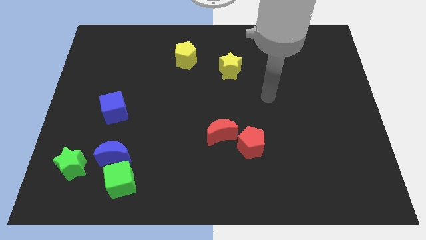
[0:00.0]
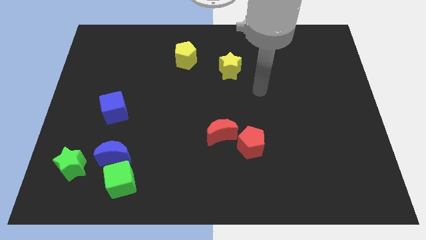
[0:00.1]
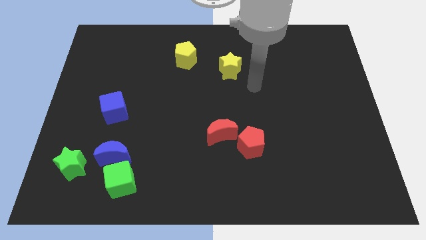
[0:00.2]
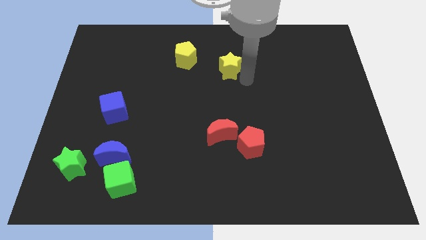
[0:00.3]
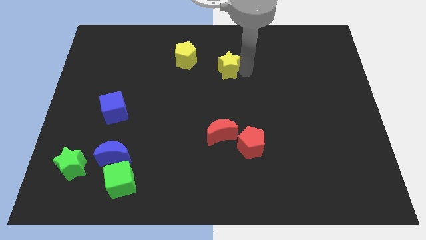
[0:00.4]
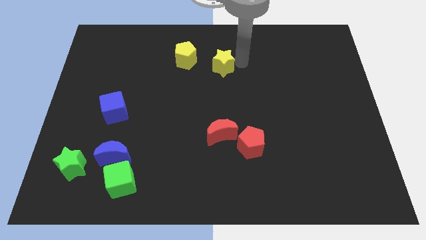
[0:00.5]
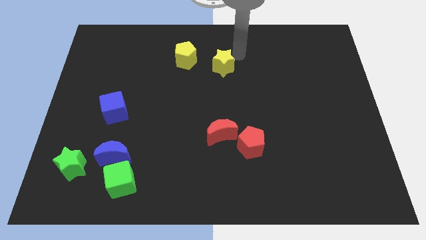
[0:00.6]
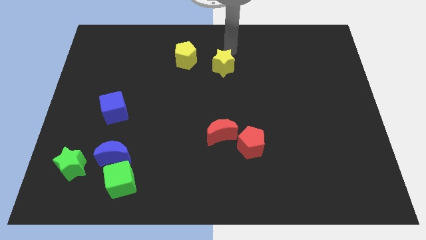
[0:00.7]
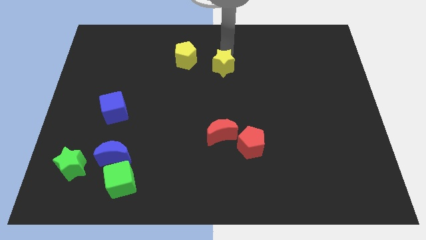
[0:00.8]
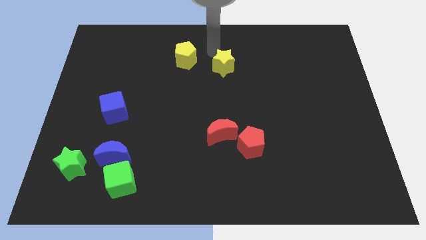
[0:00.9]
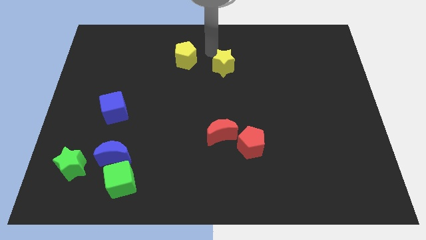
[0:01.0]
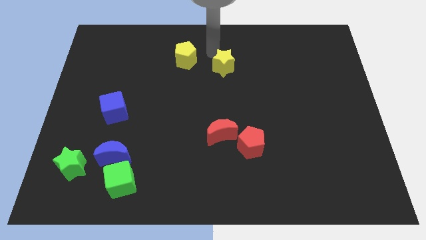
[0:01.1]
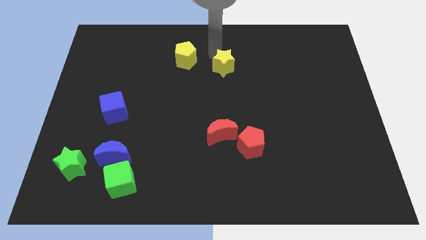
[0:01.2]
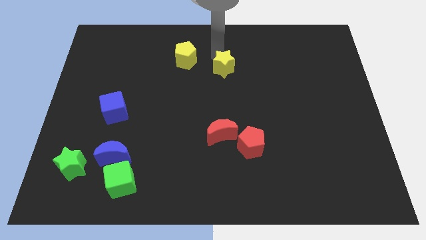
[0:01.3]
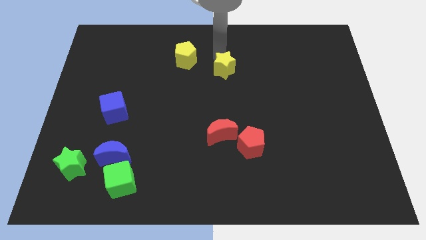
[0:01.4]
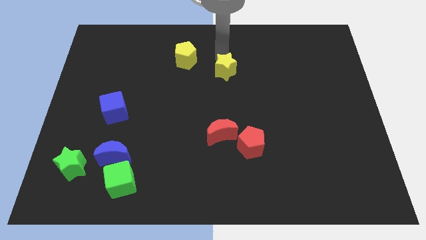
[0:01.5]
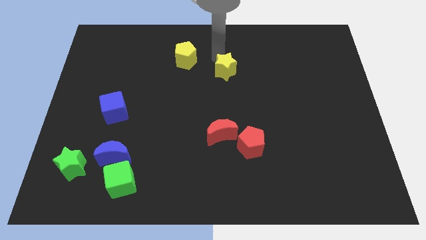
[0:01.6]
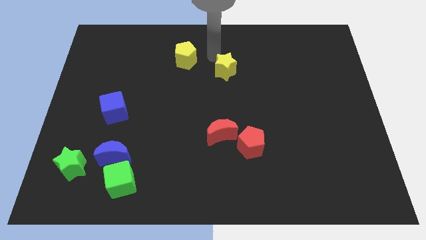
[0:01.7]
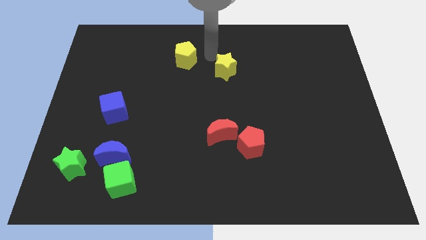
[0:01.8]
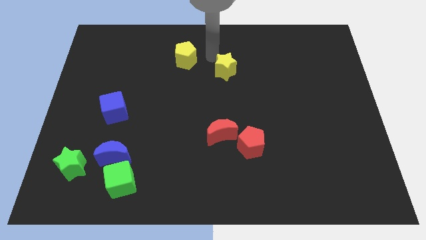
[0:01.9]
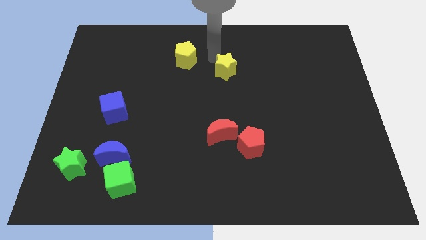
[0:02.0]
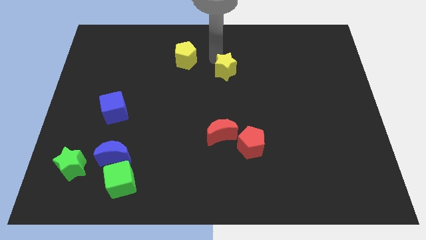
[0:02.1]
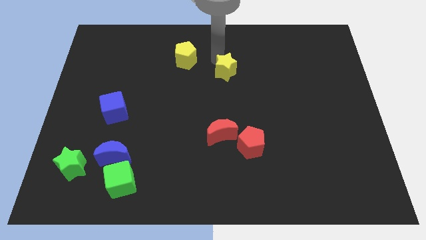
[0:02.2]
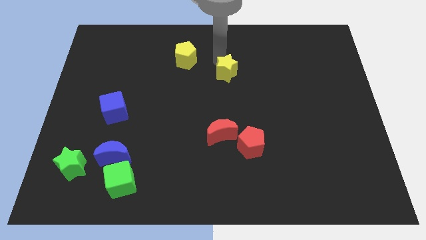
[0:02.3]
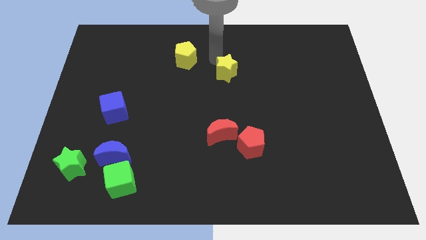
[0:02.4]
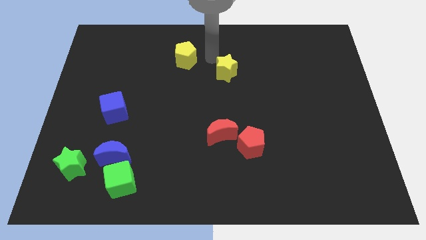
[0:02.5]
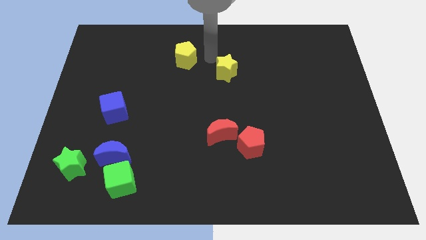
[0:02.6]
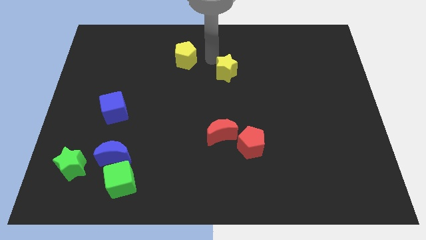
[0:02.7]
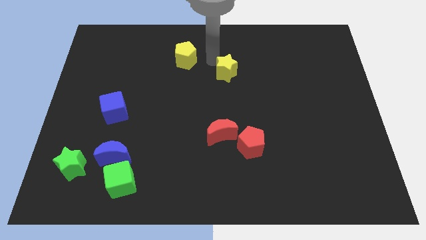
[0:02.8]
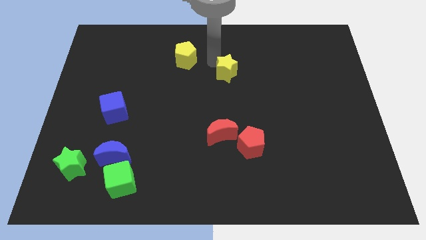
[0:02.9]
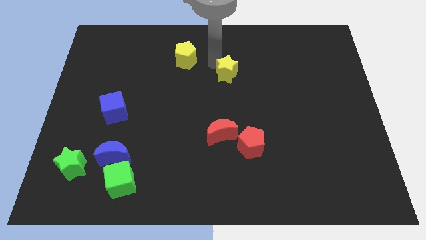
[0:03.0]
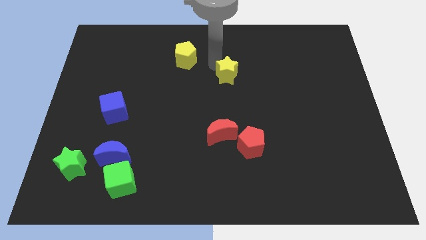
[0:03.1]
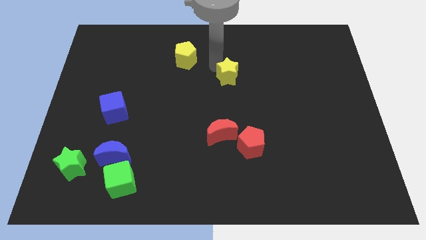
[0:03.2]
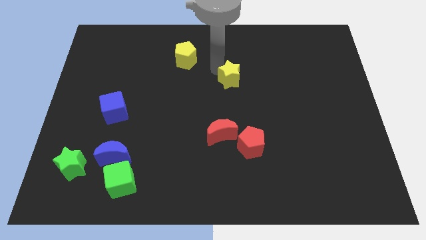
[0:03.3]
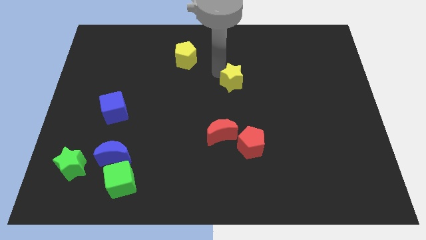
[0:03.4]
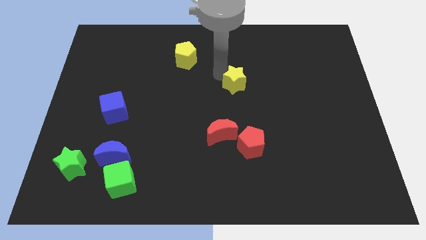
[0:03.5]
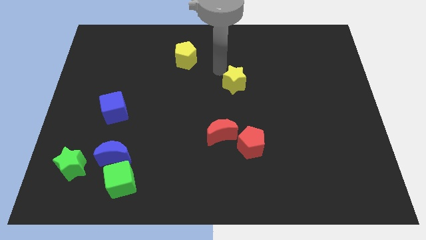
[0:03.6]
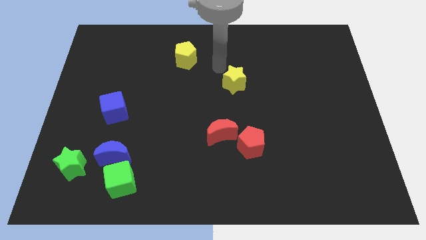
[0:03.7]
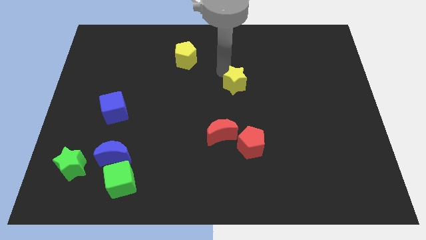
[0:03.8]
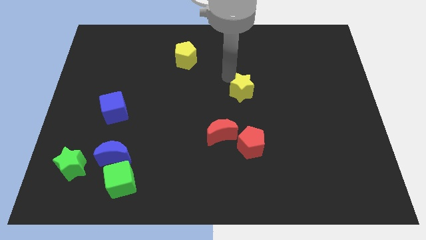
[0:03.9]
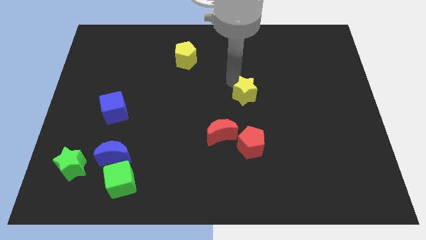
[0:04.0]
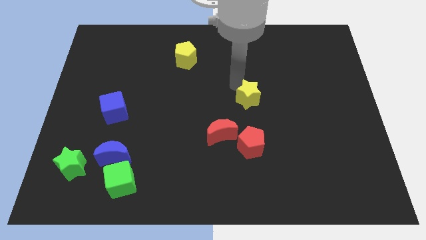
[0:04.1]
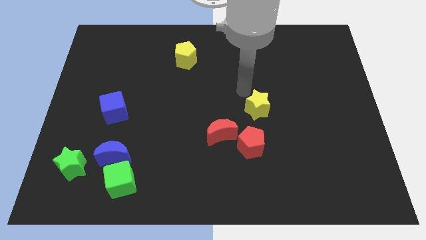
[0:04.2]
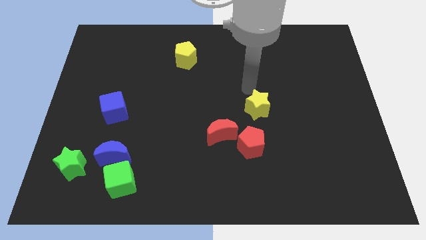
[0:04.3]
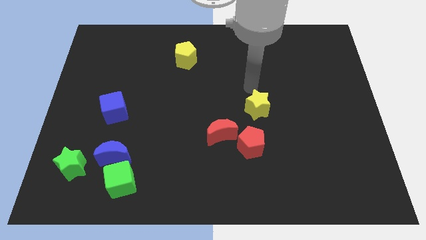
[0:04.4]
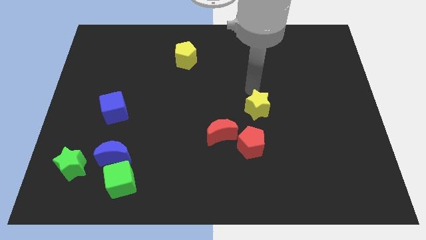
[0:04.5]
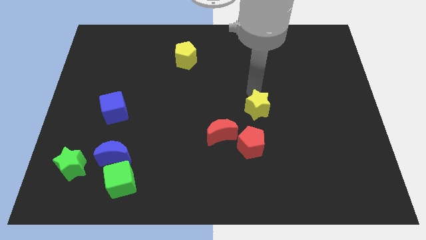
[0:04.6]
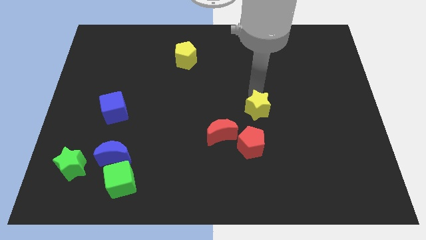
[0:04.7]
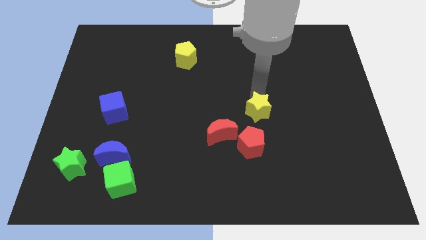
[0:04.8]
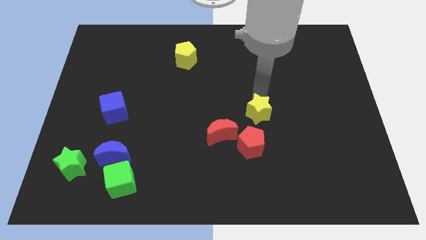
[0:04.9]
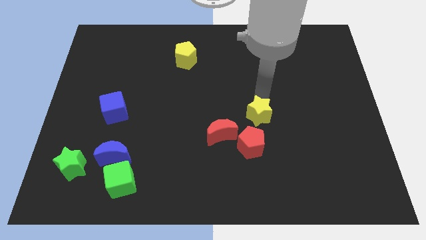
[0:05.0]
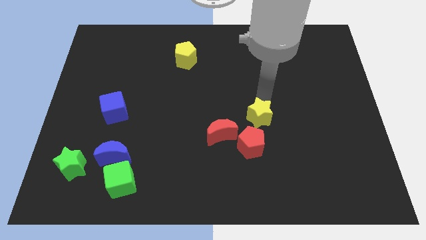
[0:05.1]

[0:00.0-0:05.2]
put the yellow star just right of the red moon

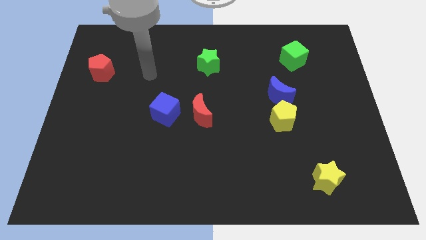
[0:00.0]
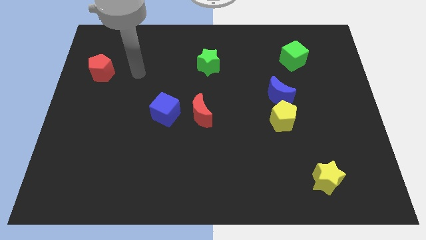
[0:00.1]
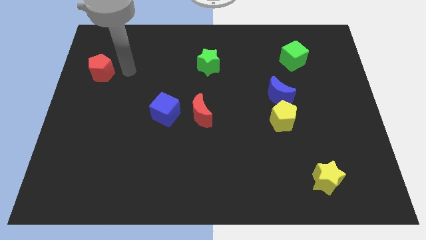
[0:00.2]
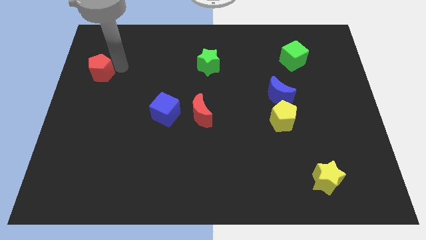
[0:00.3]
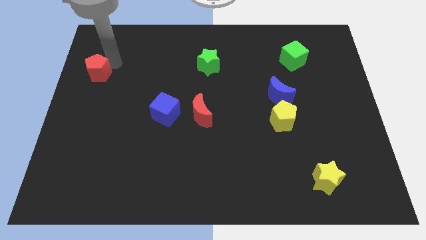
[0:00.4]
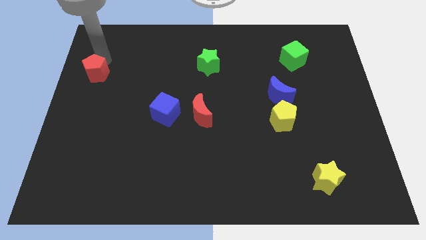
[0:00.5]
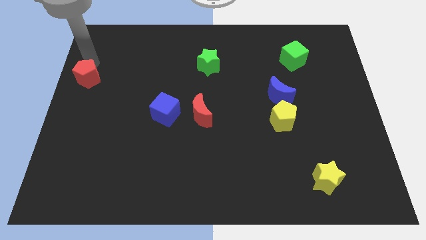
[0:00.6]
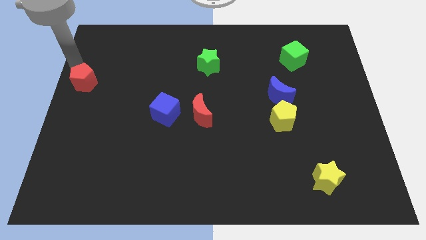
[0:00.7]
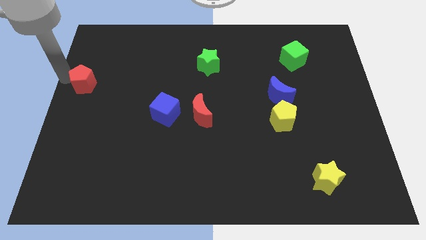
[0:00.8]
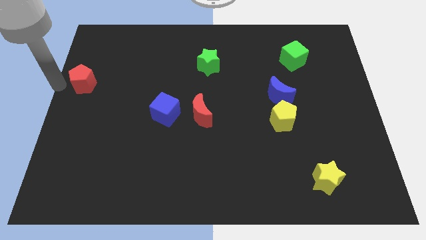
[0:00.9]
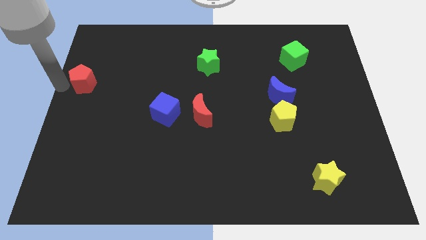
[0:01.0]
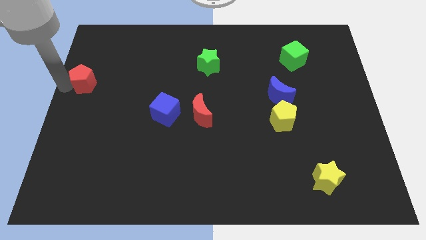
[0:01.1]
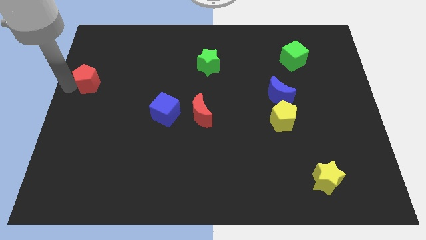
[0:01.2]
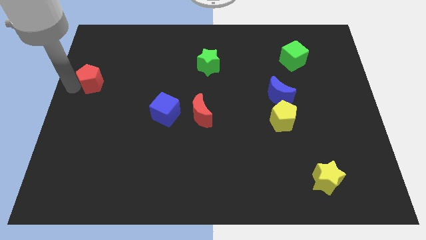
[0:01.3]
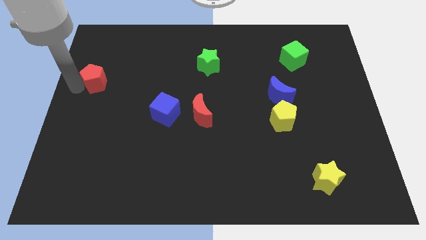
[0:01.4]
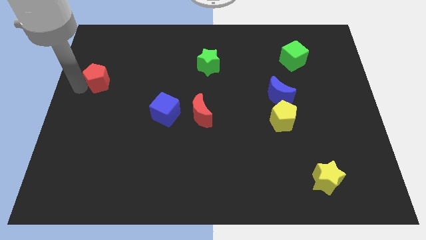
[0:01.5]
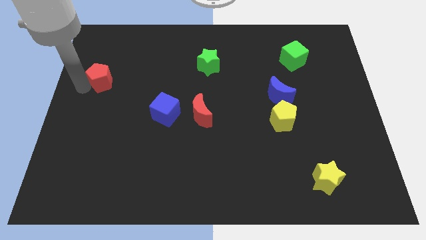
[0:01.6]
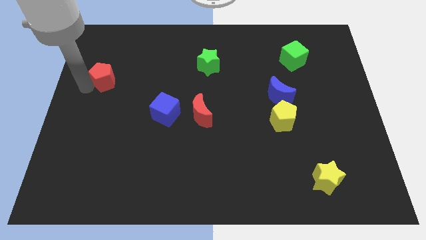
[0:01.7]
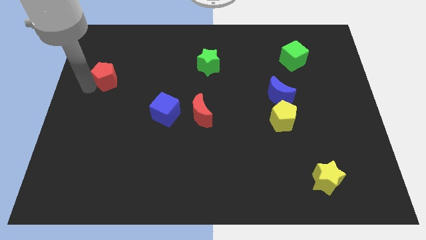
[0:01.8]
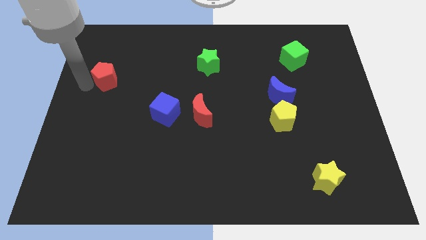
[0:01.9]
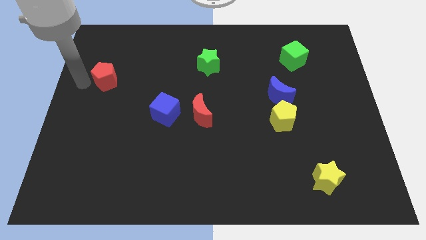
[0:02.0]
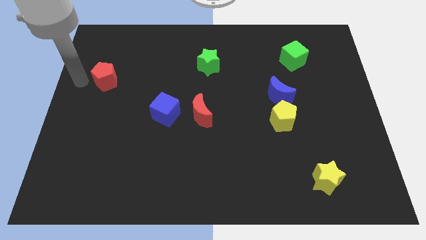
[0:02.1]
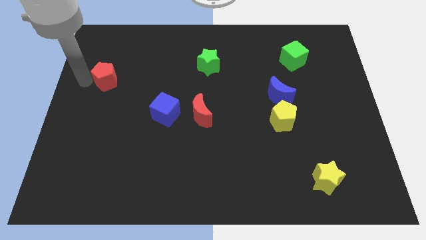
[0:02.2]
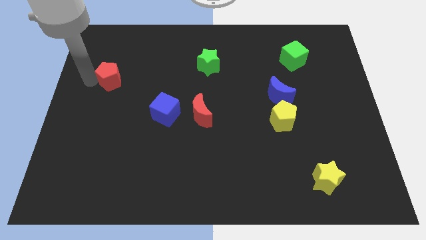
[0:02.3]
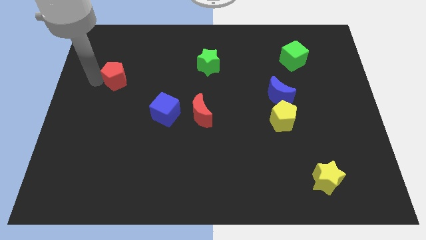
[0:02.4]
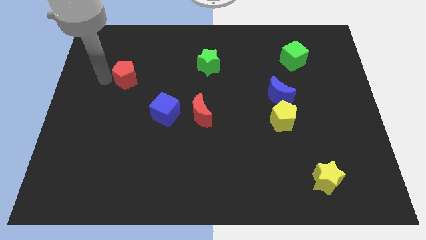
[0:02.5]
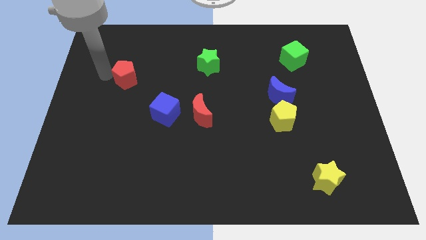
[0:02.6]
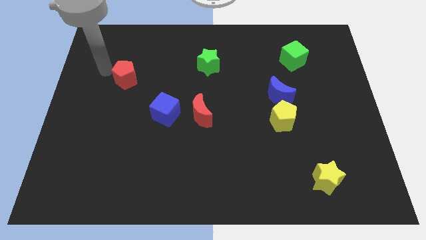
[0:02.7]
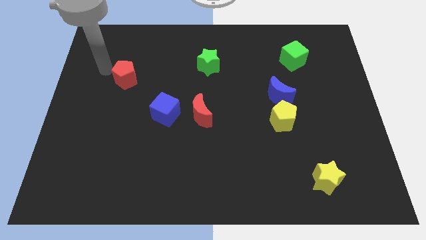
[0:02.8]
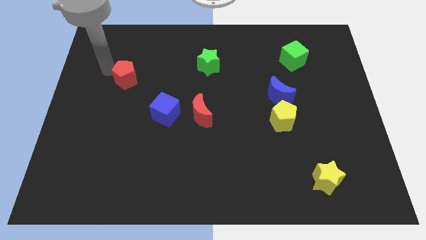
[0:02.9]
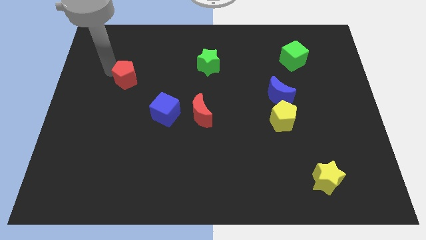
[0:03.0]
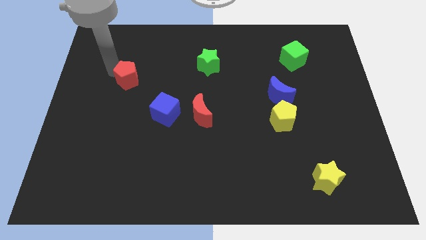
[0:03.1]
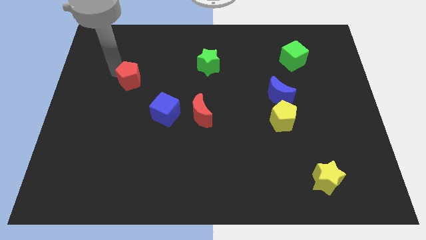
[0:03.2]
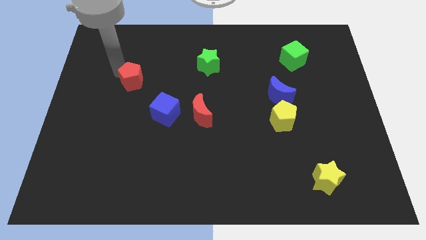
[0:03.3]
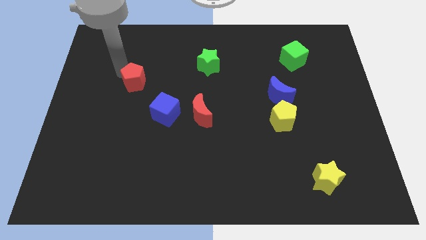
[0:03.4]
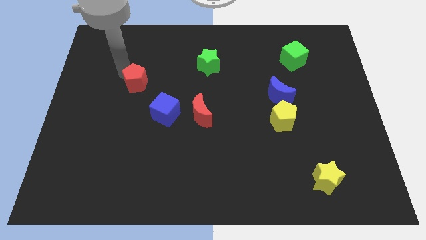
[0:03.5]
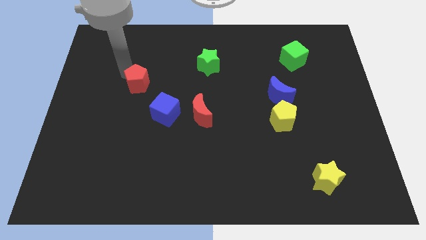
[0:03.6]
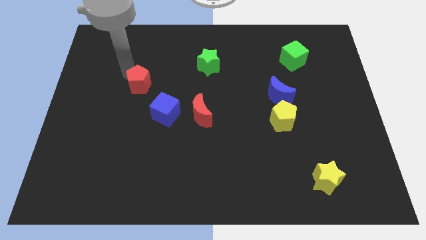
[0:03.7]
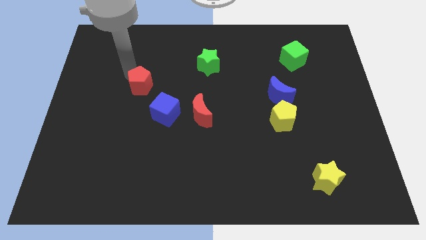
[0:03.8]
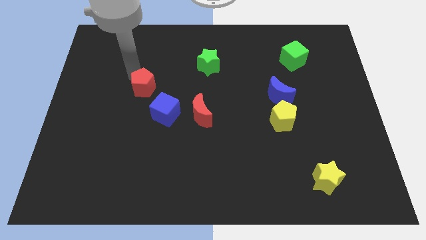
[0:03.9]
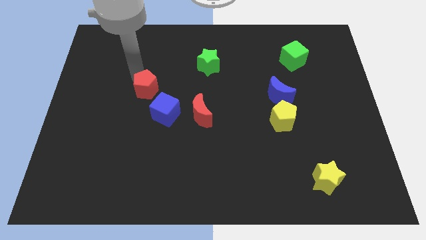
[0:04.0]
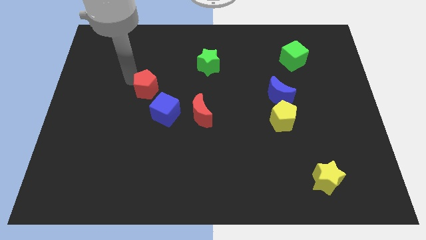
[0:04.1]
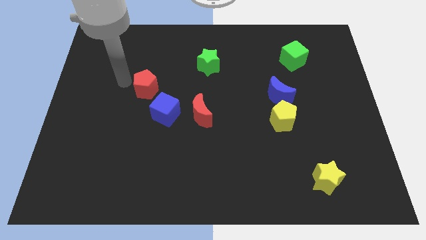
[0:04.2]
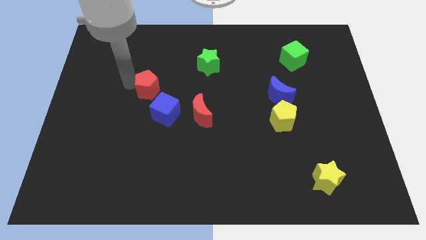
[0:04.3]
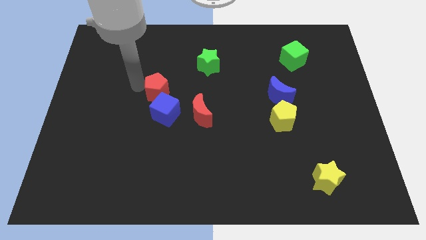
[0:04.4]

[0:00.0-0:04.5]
put the red pentagon diagonally up and to the left of the red moon
